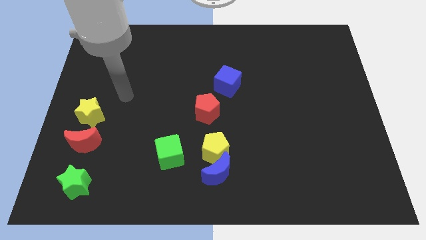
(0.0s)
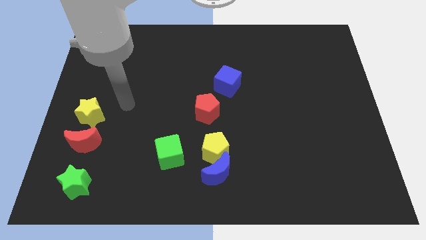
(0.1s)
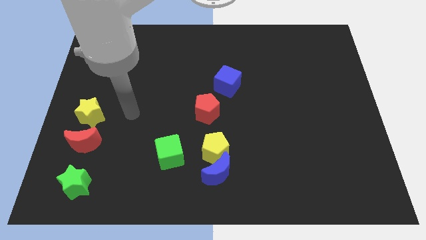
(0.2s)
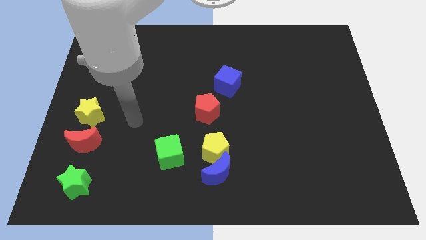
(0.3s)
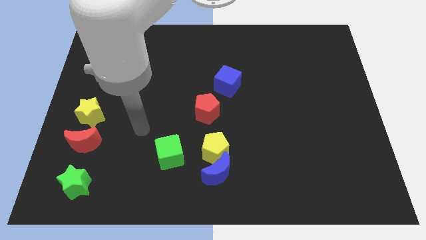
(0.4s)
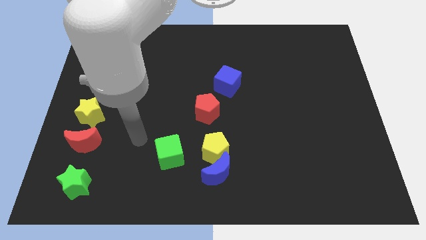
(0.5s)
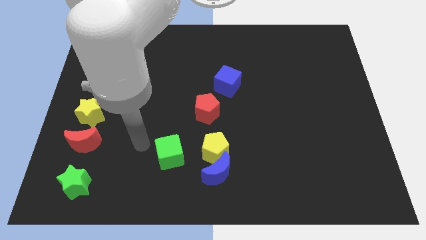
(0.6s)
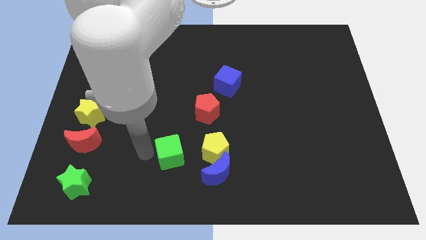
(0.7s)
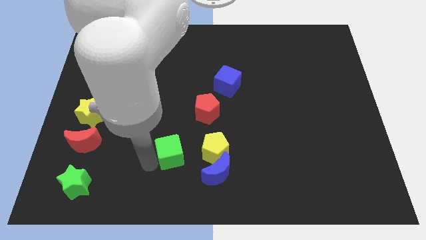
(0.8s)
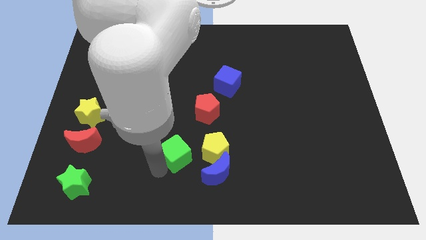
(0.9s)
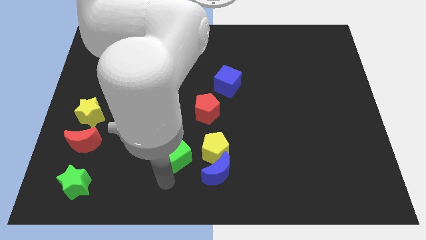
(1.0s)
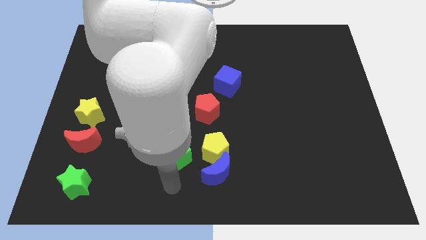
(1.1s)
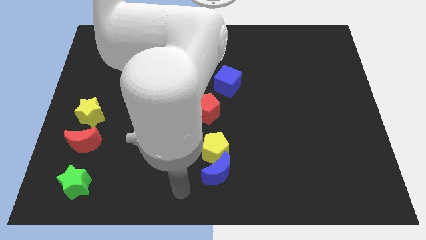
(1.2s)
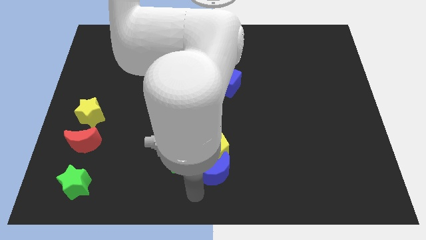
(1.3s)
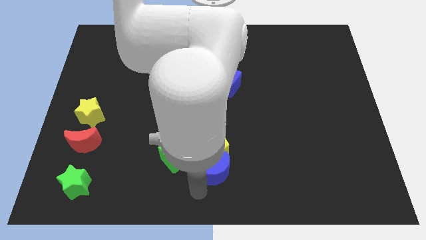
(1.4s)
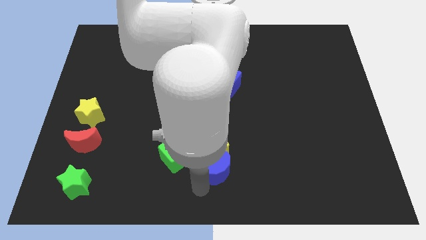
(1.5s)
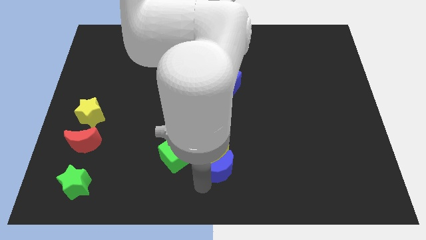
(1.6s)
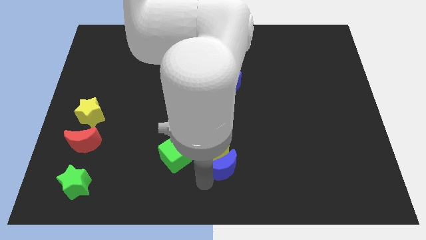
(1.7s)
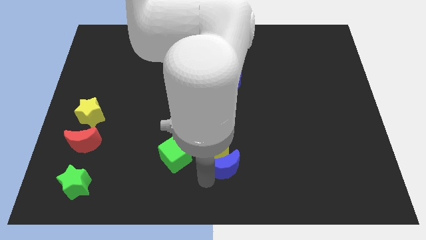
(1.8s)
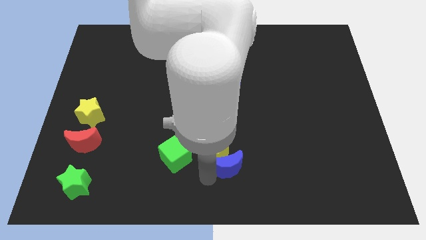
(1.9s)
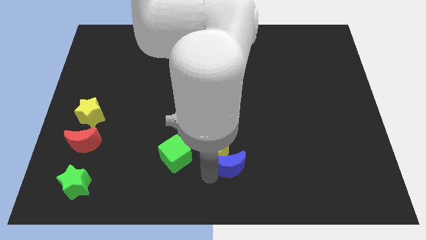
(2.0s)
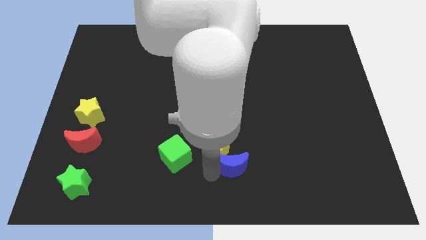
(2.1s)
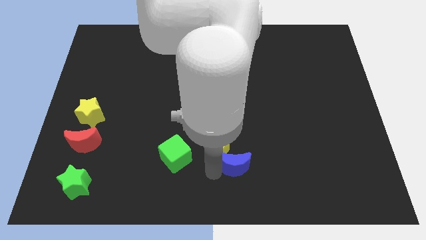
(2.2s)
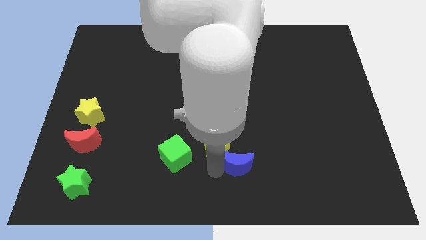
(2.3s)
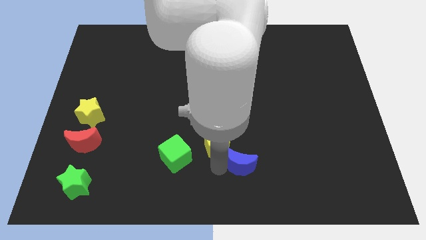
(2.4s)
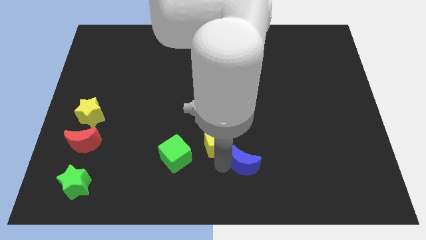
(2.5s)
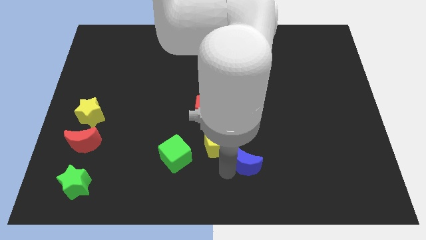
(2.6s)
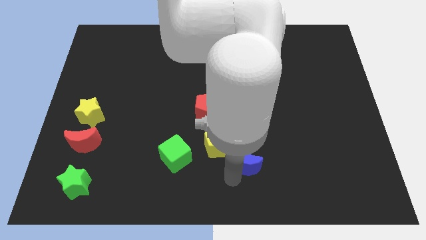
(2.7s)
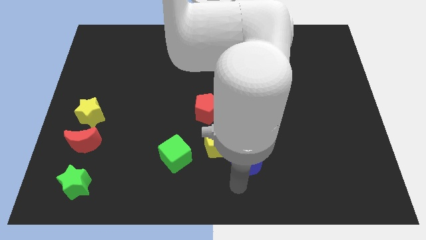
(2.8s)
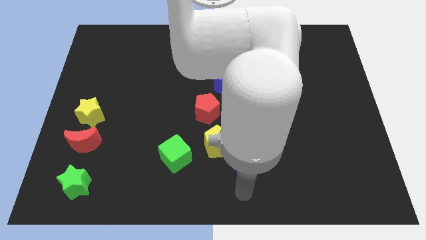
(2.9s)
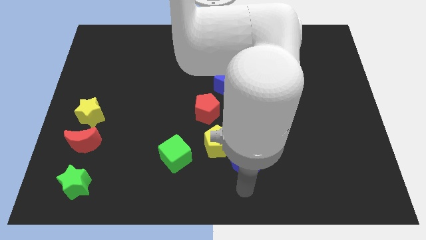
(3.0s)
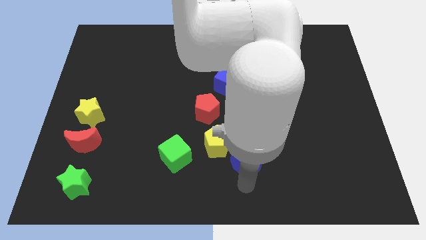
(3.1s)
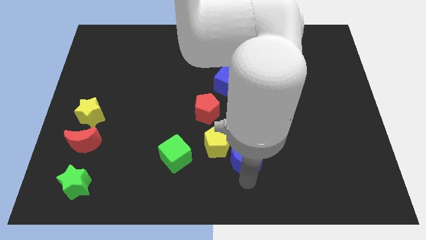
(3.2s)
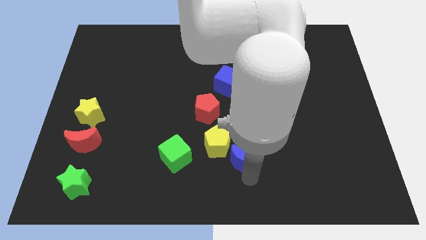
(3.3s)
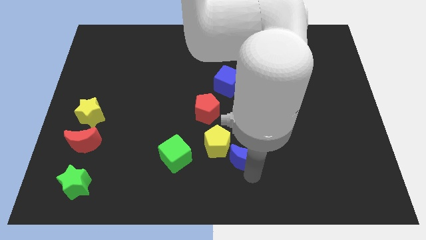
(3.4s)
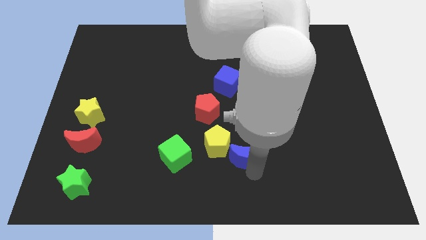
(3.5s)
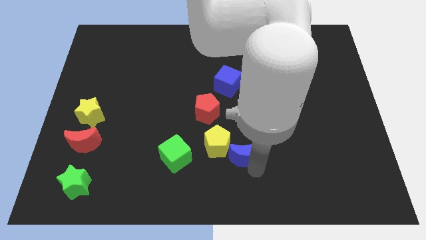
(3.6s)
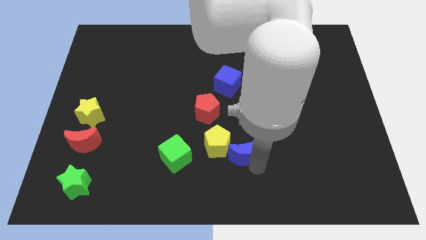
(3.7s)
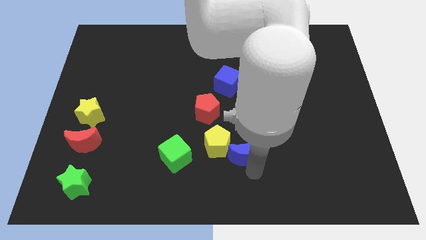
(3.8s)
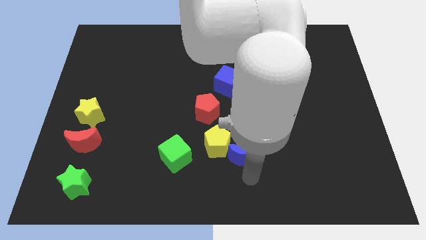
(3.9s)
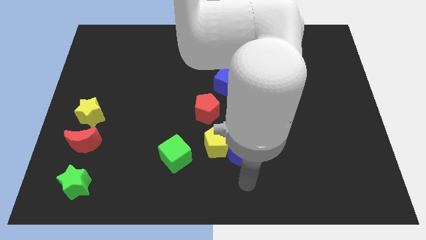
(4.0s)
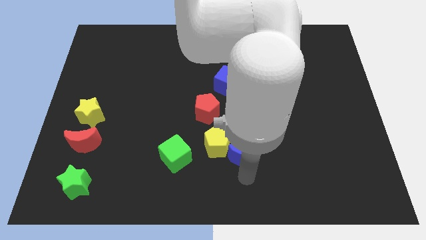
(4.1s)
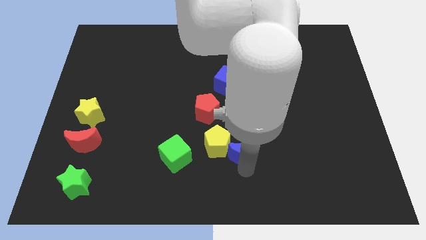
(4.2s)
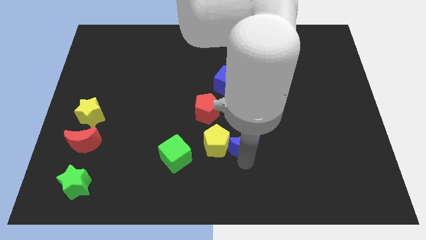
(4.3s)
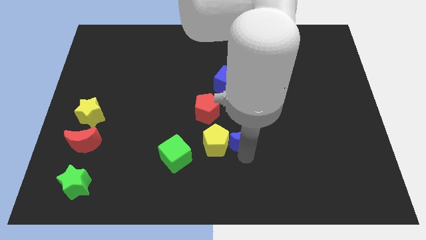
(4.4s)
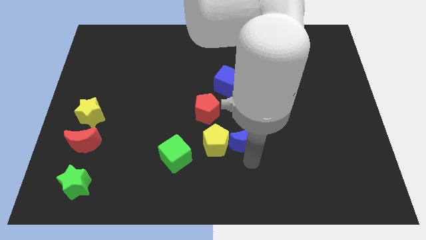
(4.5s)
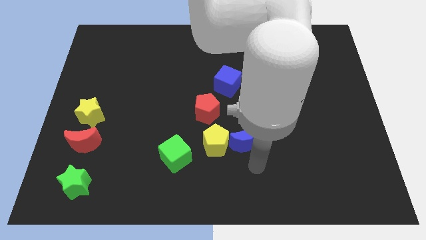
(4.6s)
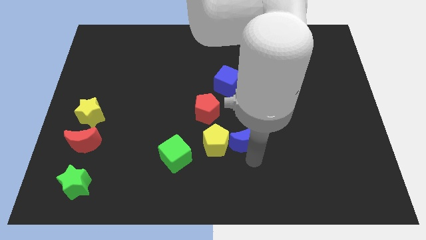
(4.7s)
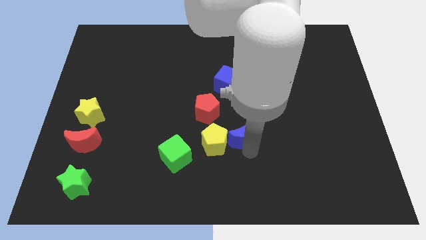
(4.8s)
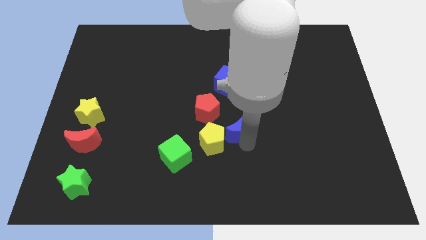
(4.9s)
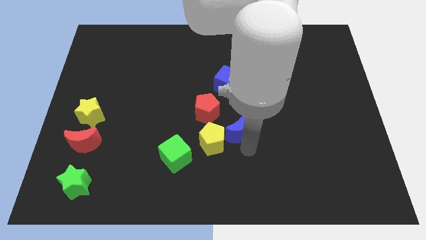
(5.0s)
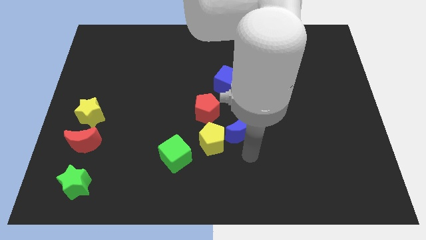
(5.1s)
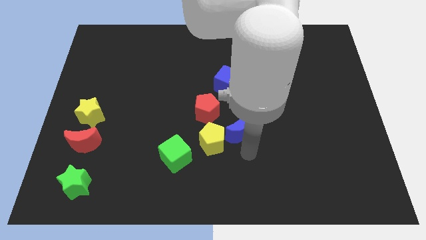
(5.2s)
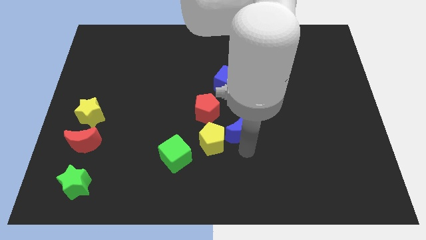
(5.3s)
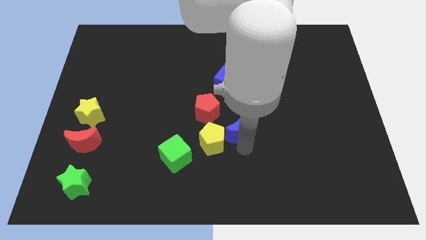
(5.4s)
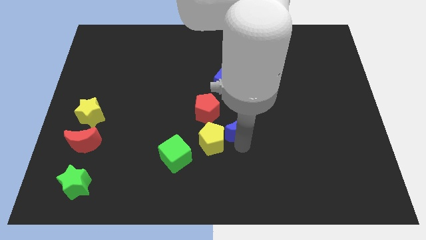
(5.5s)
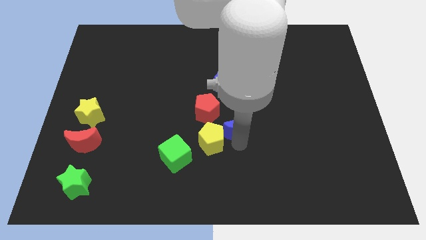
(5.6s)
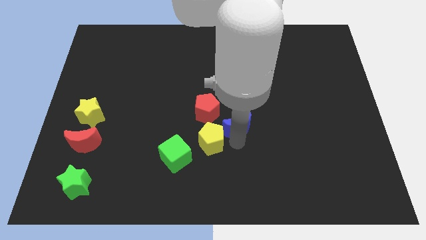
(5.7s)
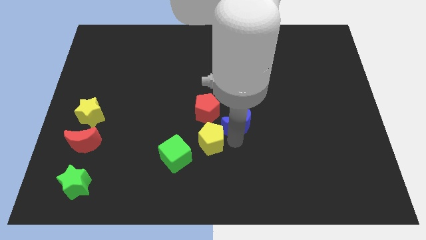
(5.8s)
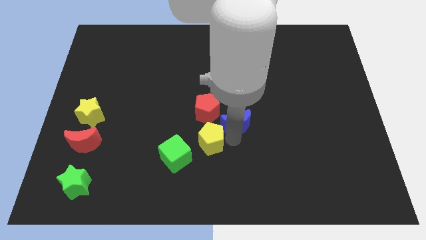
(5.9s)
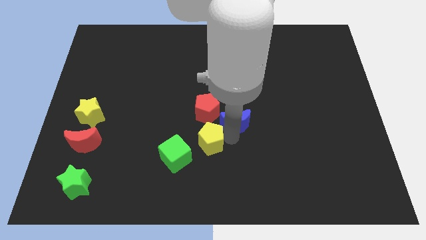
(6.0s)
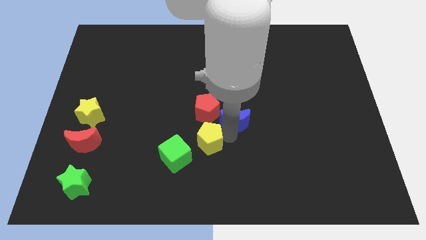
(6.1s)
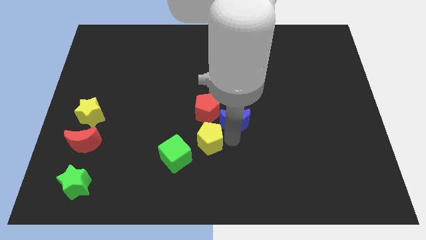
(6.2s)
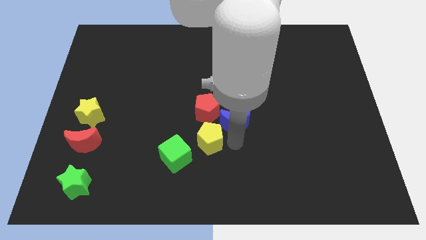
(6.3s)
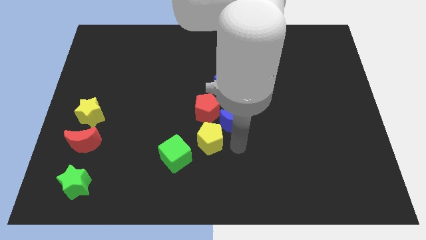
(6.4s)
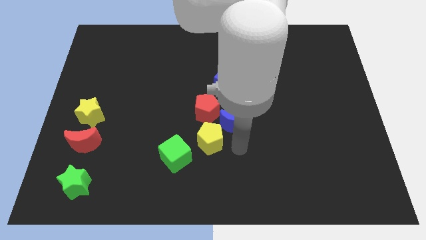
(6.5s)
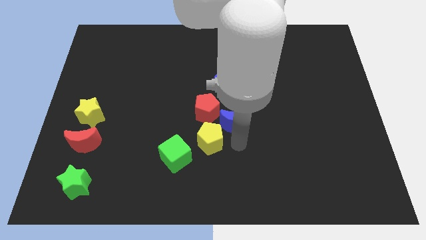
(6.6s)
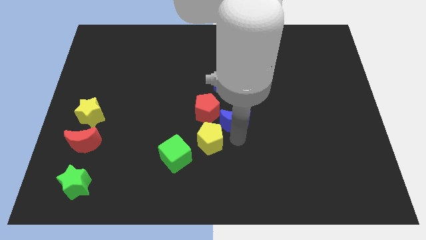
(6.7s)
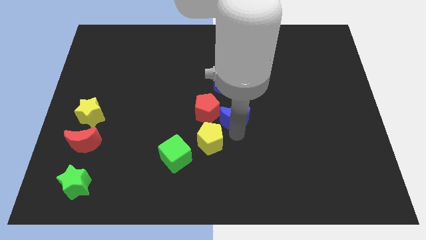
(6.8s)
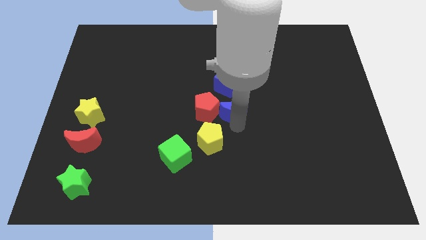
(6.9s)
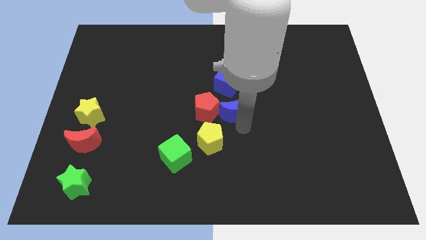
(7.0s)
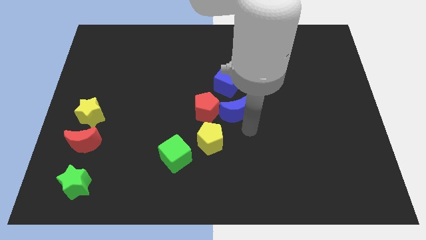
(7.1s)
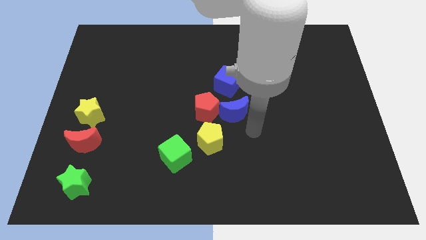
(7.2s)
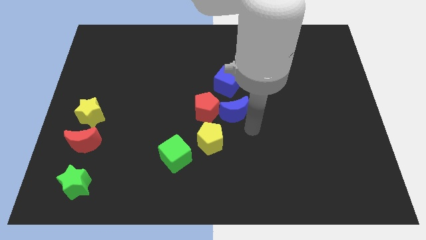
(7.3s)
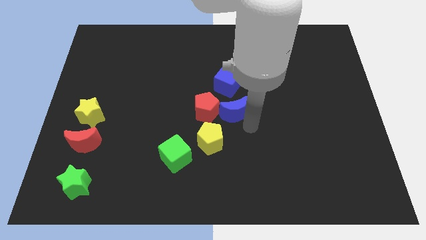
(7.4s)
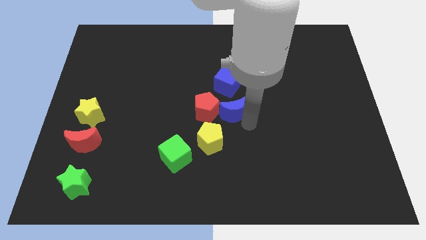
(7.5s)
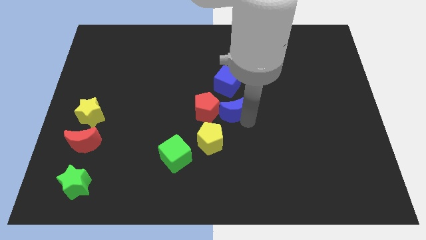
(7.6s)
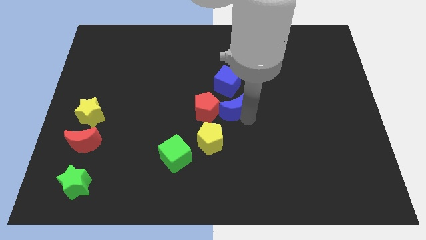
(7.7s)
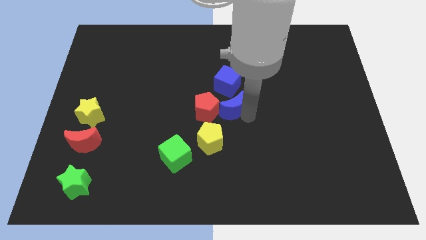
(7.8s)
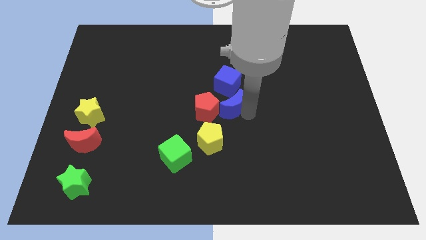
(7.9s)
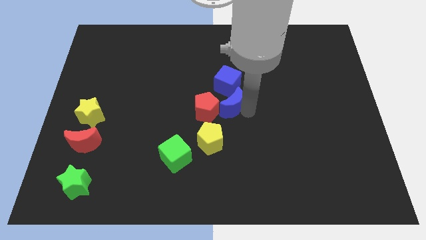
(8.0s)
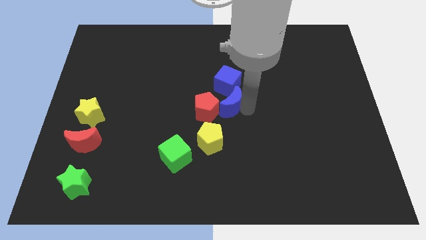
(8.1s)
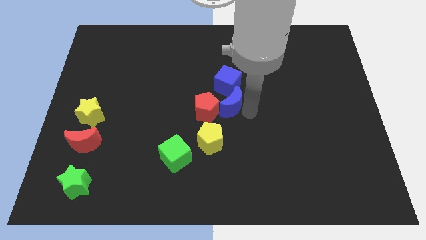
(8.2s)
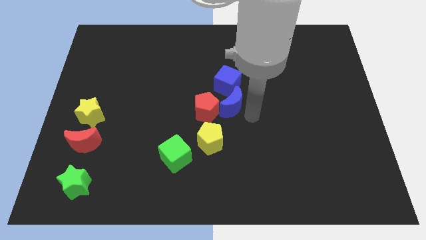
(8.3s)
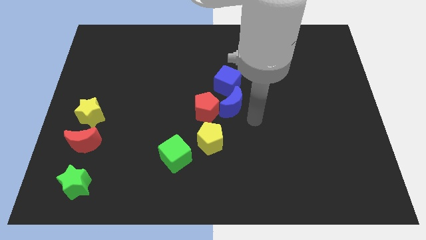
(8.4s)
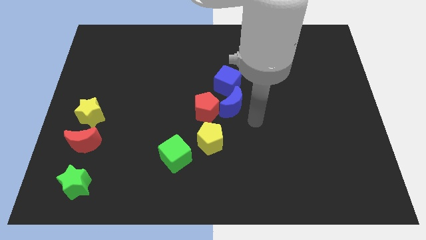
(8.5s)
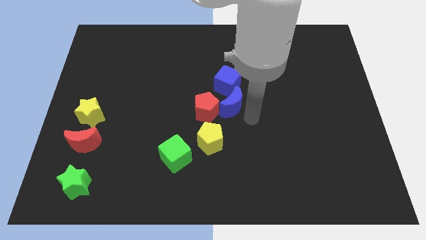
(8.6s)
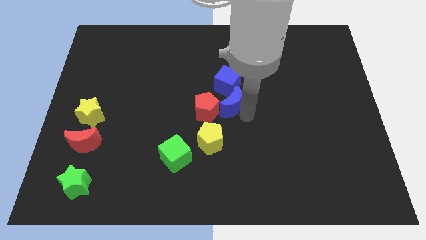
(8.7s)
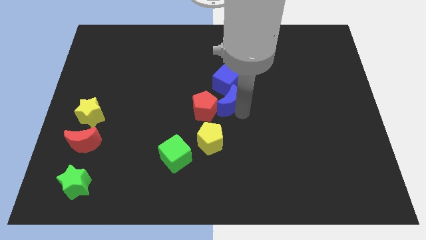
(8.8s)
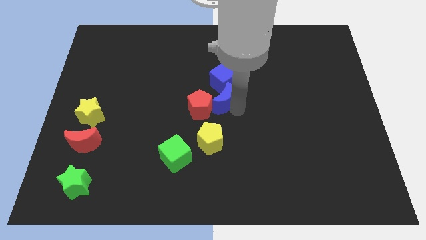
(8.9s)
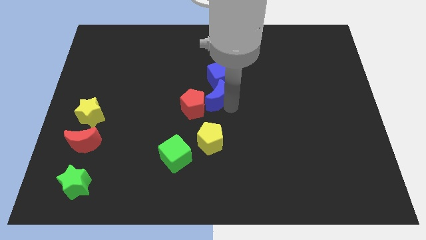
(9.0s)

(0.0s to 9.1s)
push the blue moon upwards
